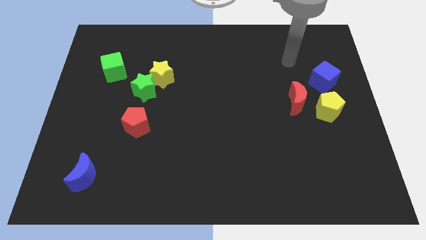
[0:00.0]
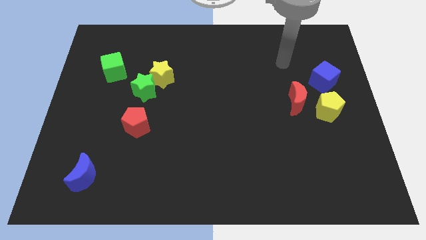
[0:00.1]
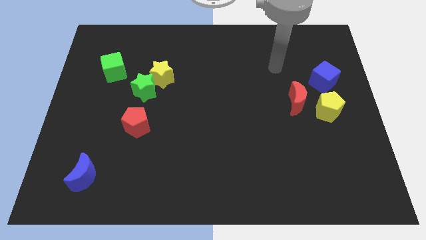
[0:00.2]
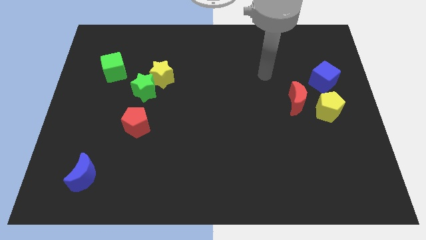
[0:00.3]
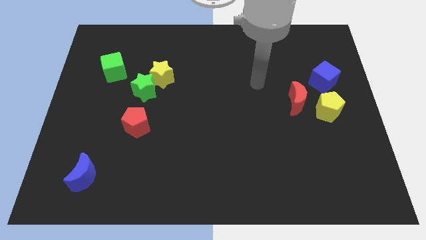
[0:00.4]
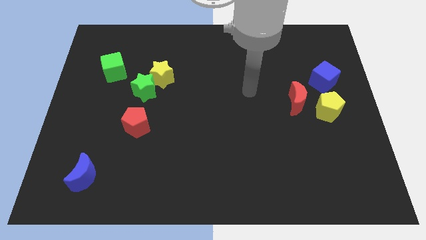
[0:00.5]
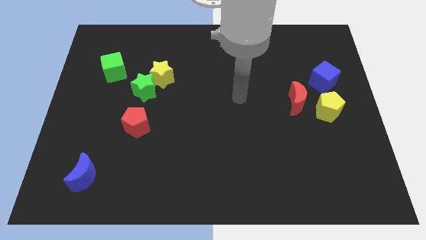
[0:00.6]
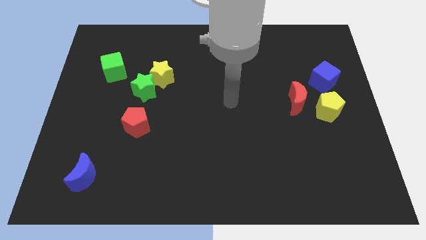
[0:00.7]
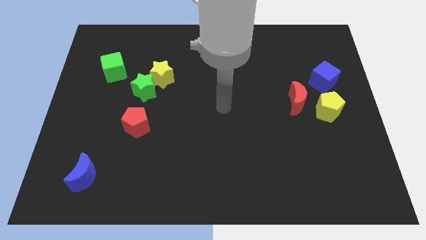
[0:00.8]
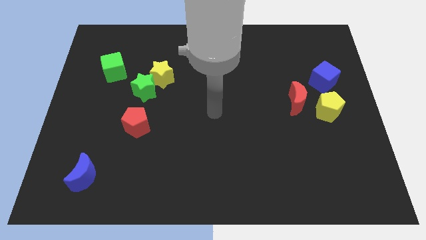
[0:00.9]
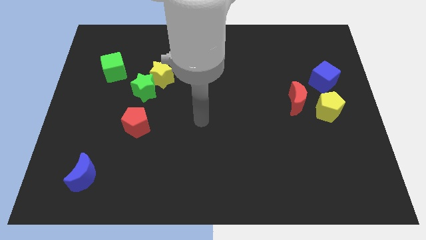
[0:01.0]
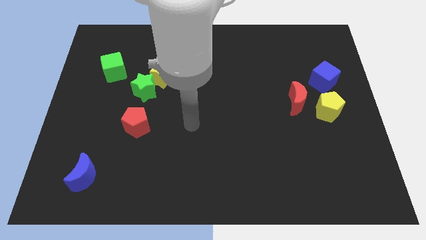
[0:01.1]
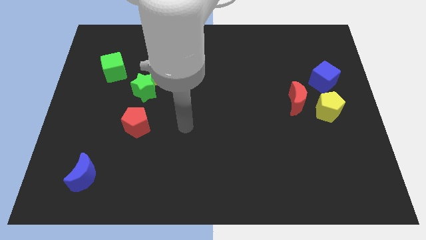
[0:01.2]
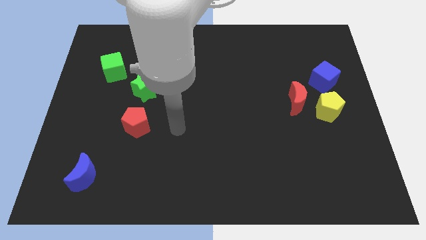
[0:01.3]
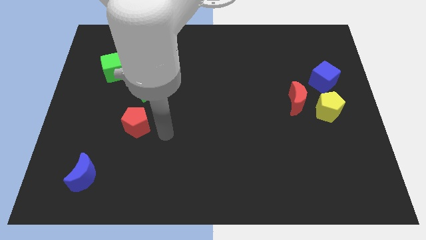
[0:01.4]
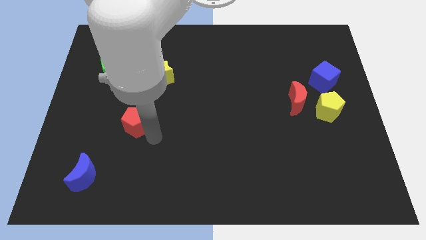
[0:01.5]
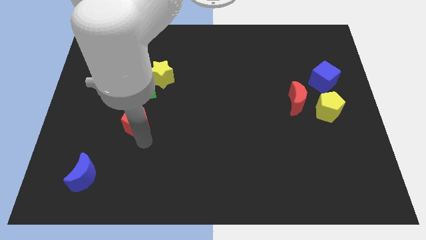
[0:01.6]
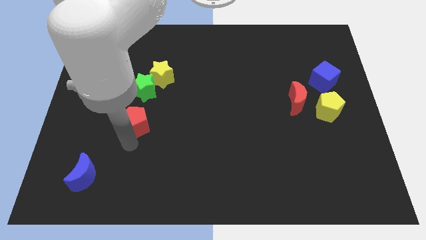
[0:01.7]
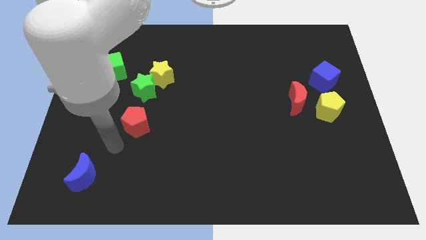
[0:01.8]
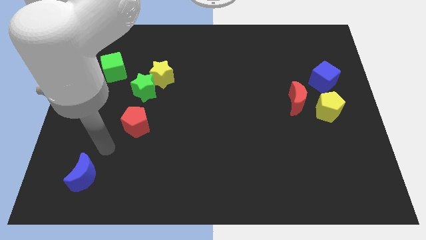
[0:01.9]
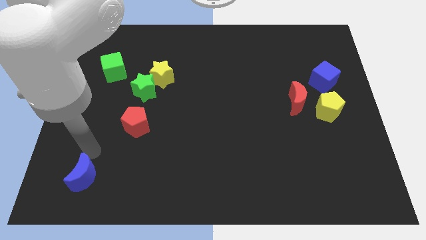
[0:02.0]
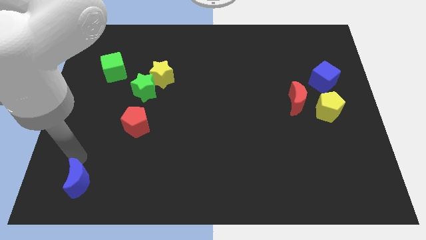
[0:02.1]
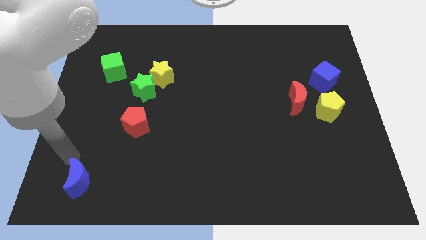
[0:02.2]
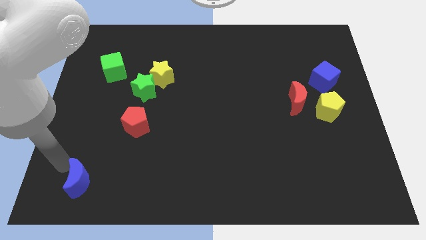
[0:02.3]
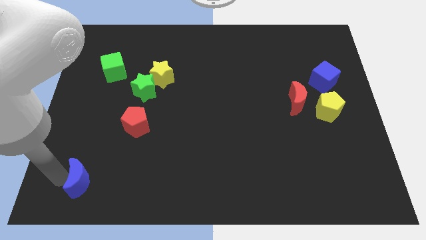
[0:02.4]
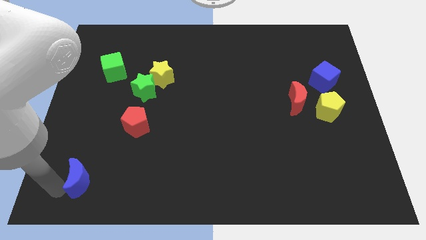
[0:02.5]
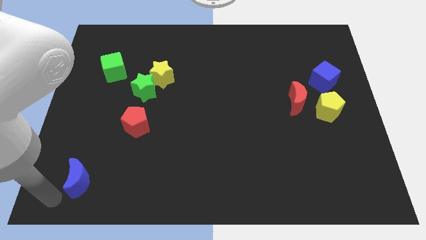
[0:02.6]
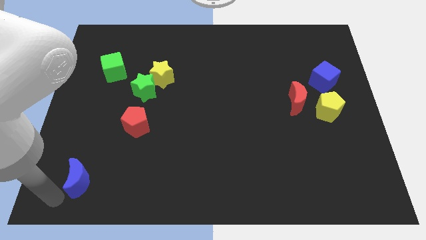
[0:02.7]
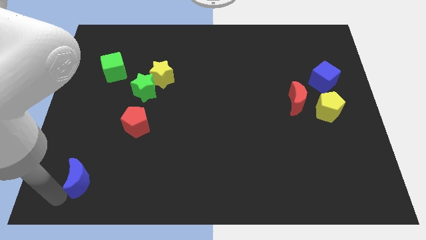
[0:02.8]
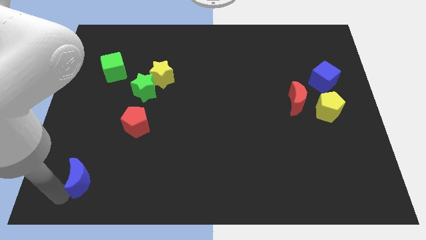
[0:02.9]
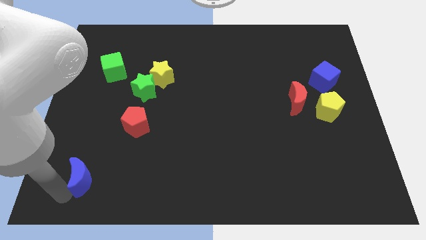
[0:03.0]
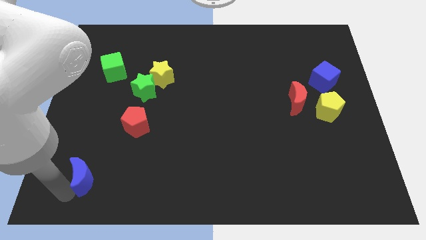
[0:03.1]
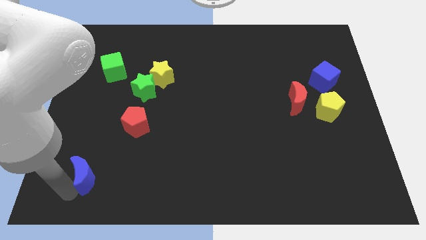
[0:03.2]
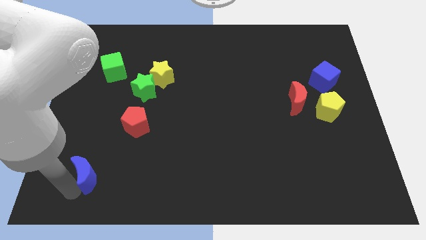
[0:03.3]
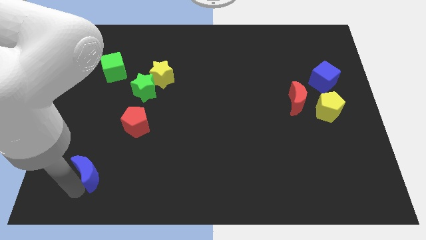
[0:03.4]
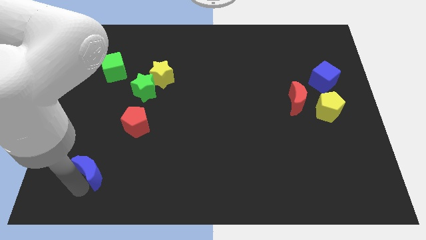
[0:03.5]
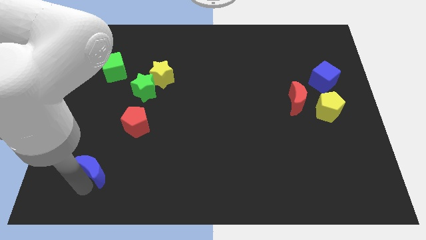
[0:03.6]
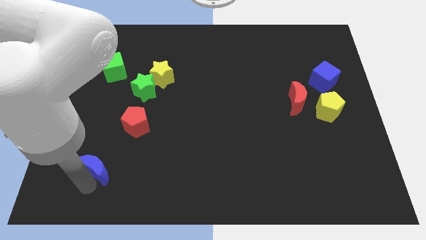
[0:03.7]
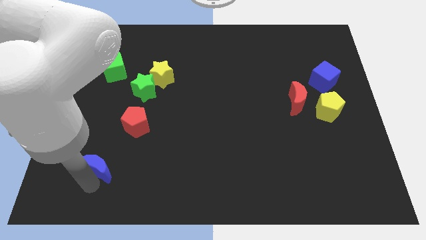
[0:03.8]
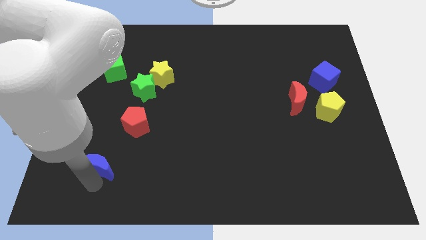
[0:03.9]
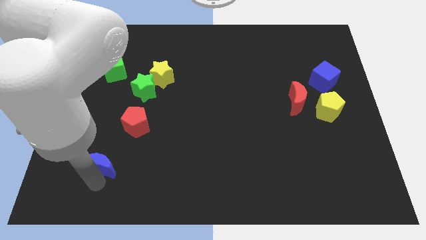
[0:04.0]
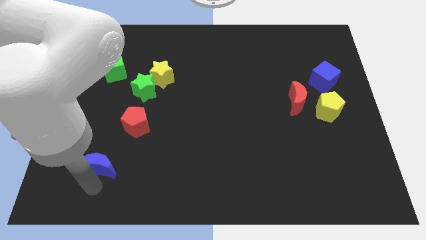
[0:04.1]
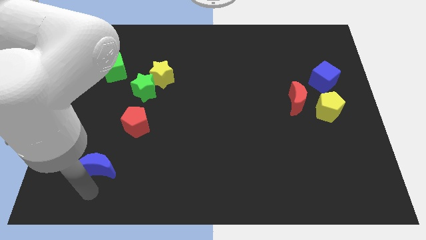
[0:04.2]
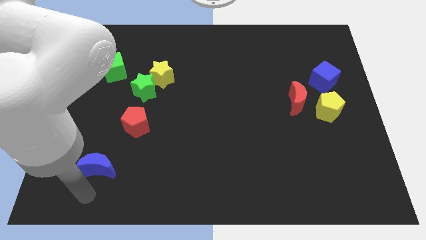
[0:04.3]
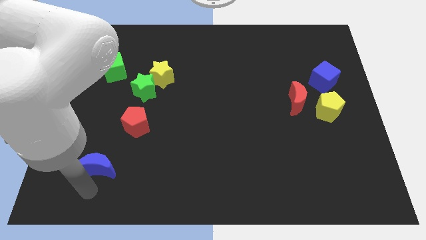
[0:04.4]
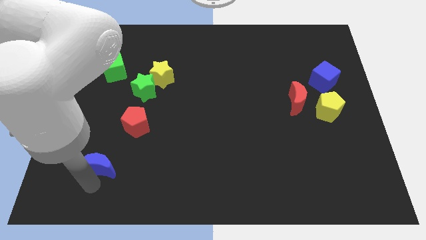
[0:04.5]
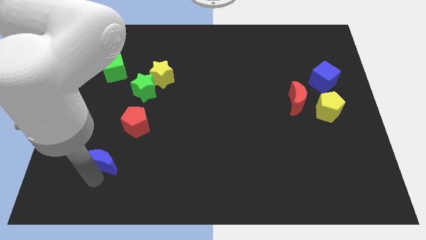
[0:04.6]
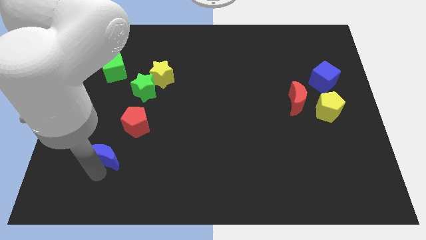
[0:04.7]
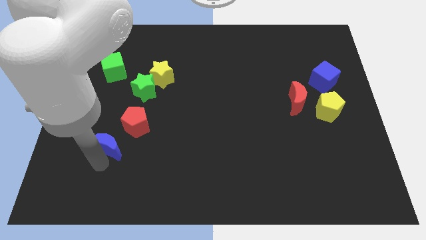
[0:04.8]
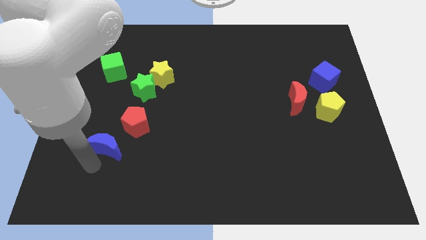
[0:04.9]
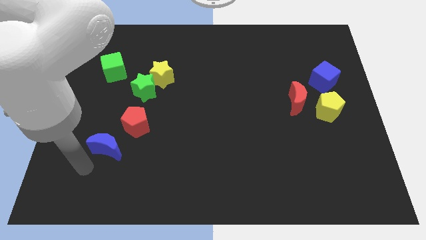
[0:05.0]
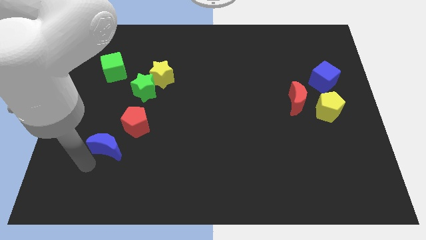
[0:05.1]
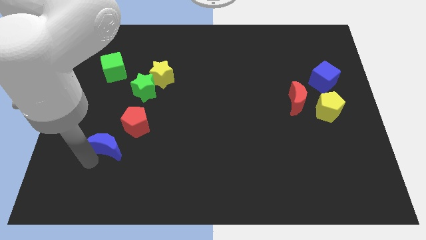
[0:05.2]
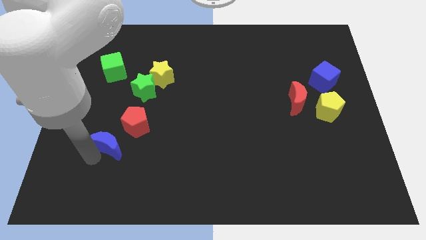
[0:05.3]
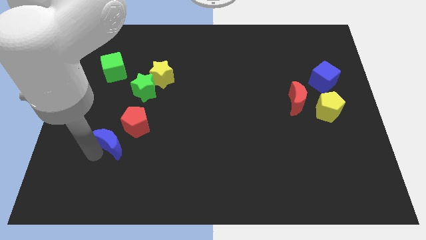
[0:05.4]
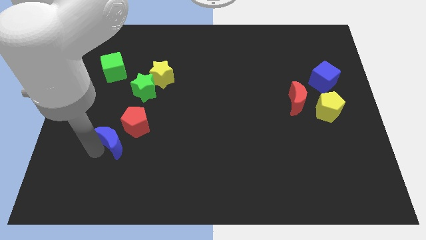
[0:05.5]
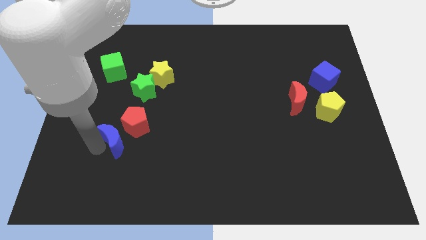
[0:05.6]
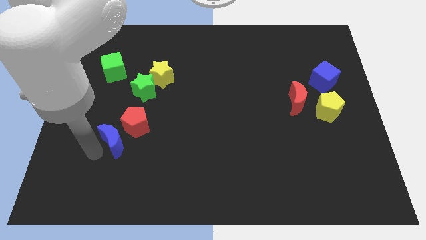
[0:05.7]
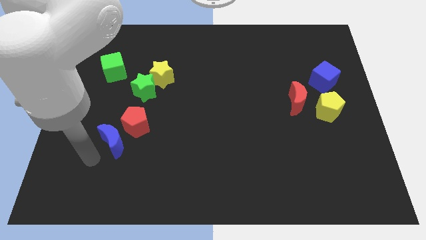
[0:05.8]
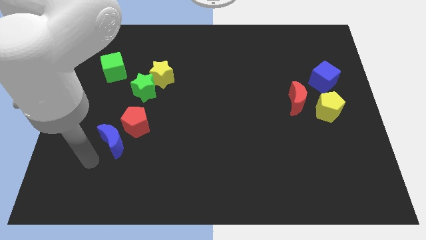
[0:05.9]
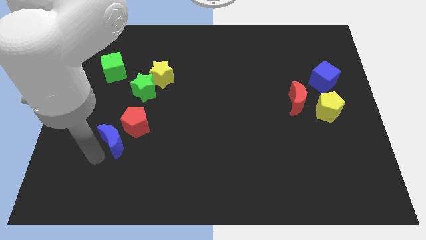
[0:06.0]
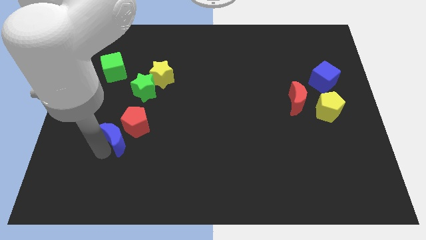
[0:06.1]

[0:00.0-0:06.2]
slide the blue moon next to the red pentagon

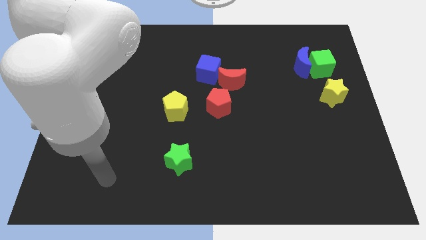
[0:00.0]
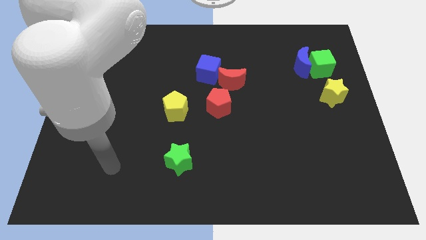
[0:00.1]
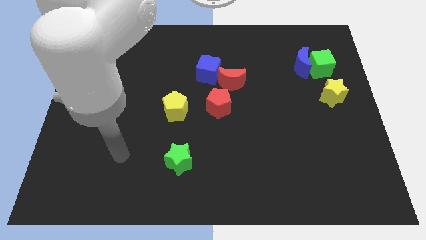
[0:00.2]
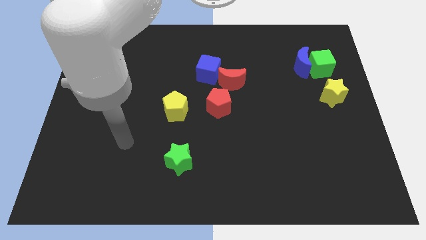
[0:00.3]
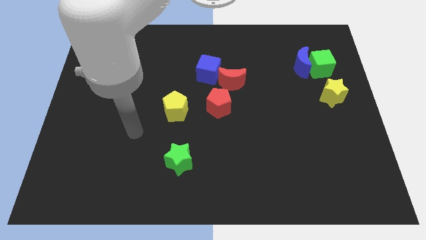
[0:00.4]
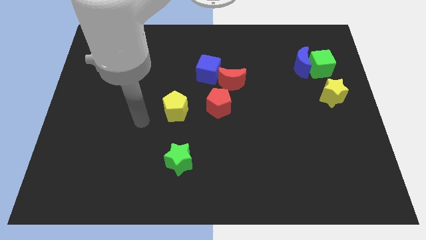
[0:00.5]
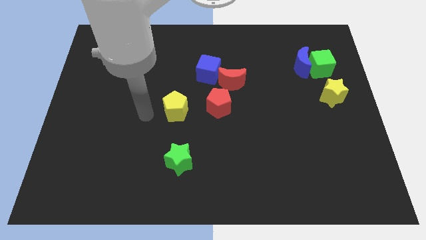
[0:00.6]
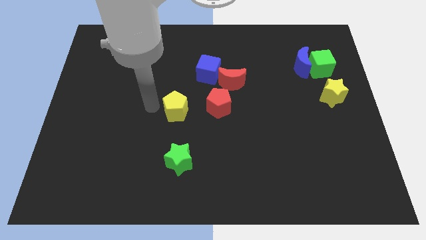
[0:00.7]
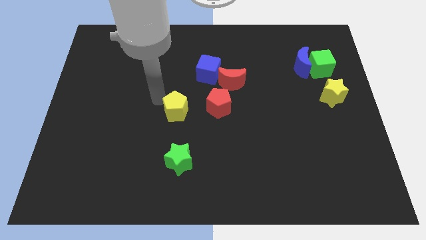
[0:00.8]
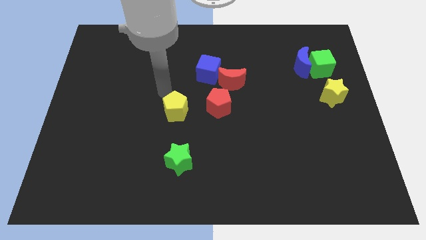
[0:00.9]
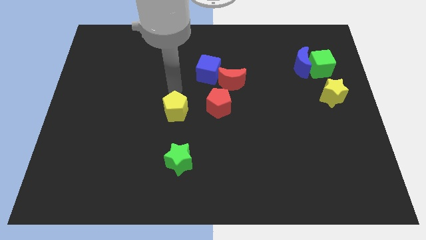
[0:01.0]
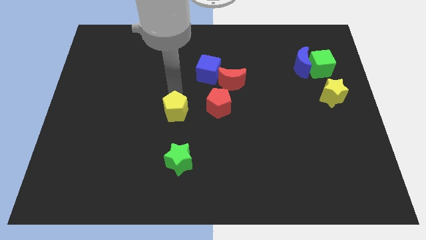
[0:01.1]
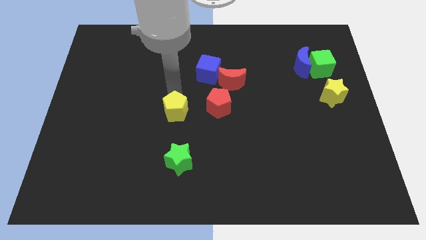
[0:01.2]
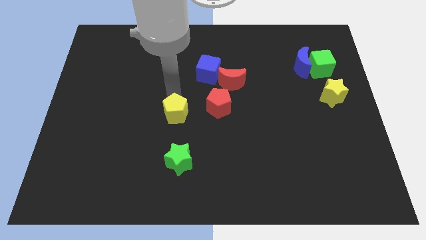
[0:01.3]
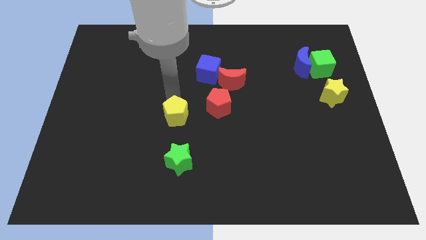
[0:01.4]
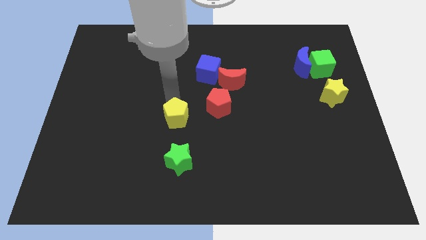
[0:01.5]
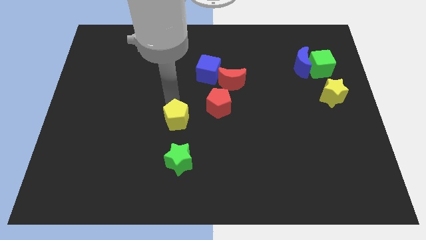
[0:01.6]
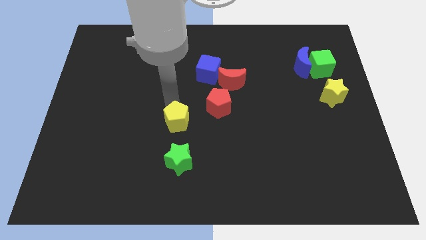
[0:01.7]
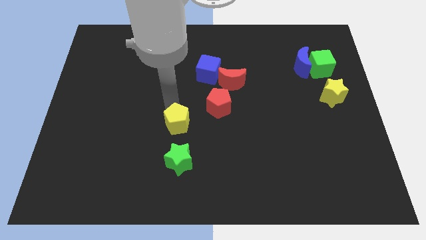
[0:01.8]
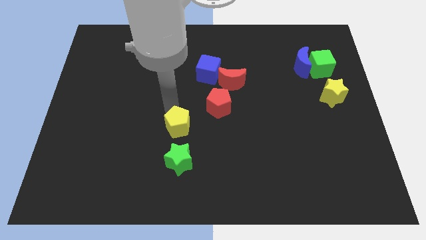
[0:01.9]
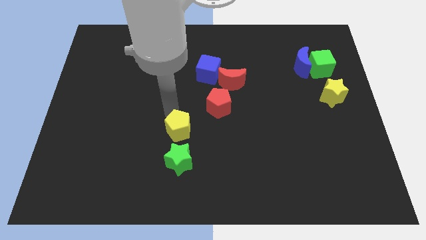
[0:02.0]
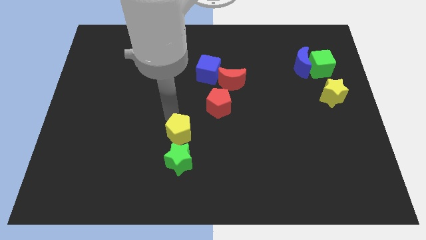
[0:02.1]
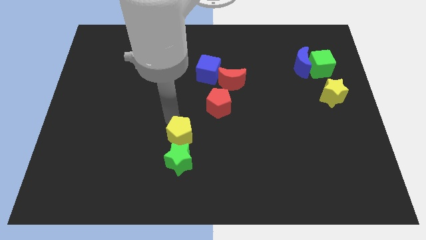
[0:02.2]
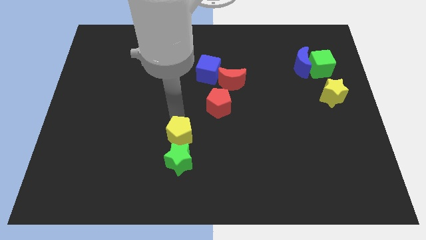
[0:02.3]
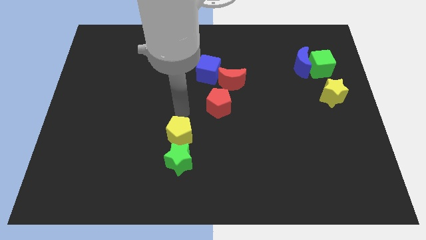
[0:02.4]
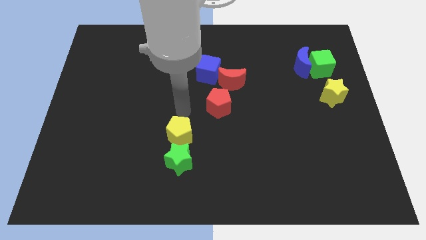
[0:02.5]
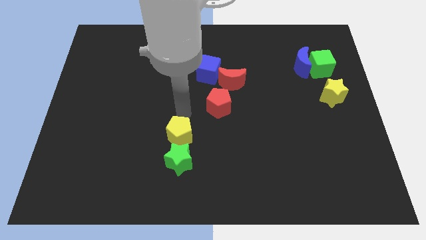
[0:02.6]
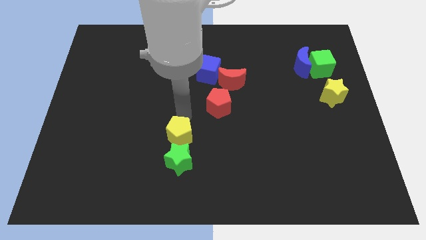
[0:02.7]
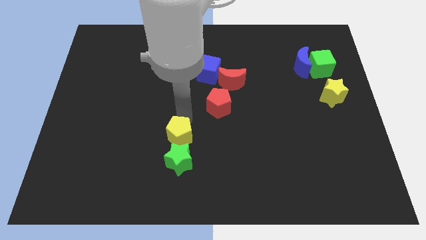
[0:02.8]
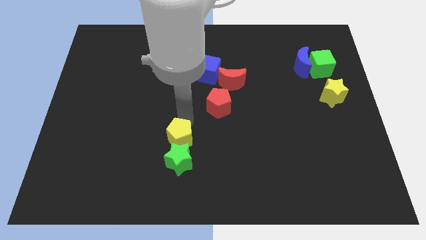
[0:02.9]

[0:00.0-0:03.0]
move the yellow pentagon towards the green star
